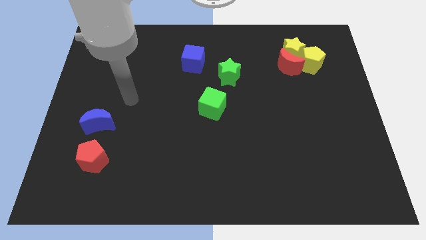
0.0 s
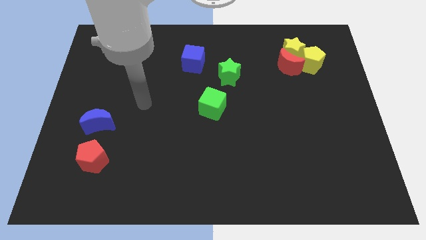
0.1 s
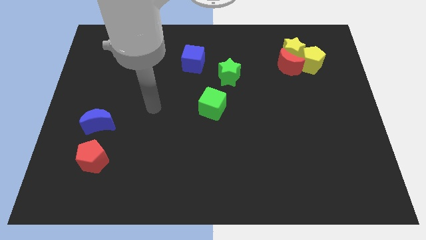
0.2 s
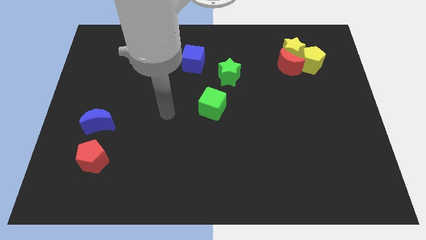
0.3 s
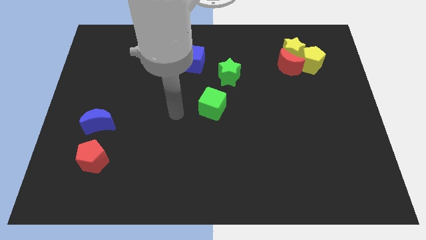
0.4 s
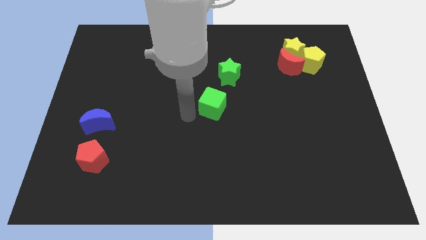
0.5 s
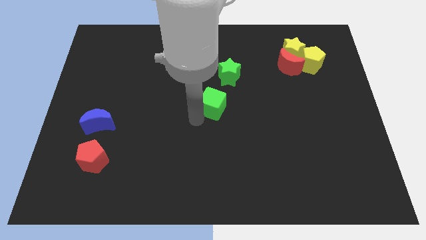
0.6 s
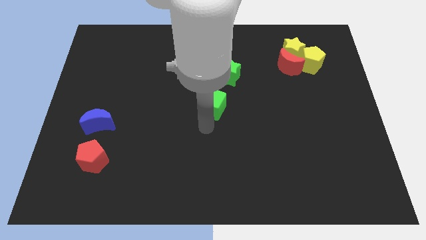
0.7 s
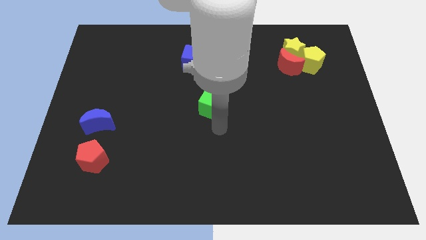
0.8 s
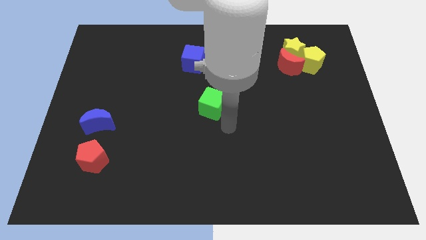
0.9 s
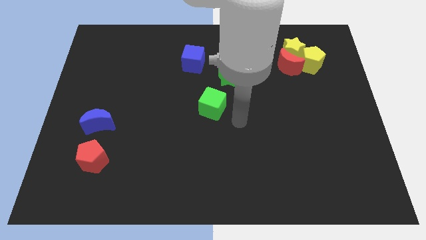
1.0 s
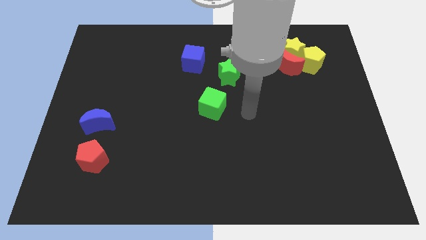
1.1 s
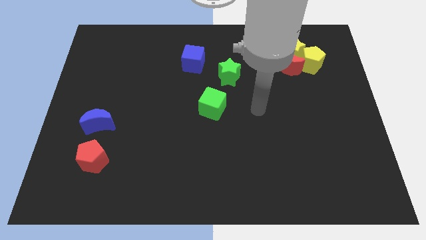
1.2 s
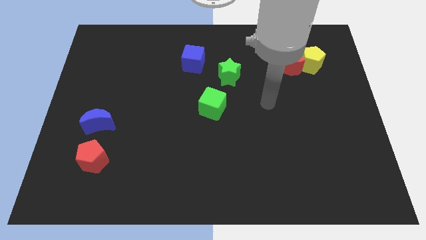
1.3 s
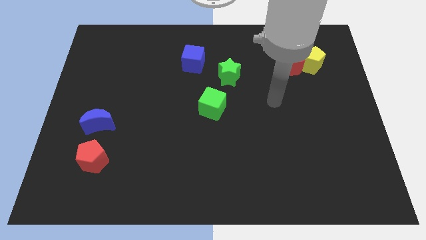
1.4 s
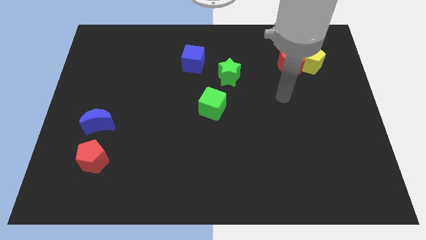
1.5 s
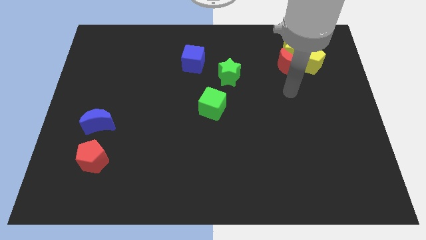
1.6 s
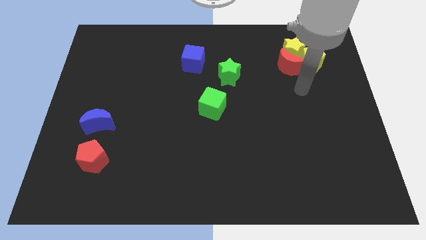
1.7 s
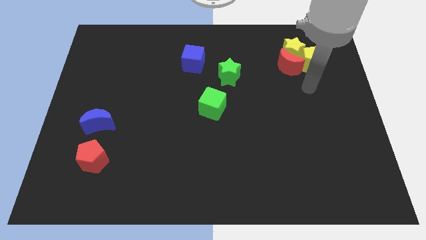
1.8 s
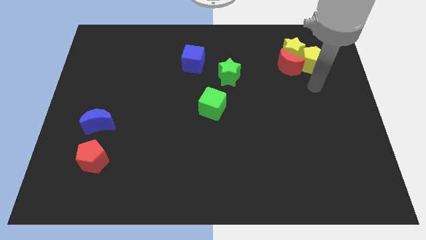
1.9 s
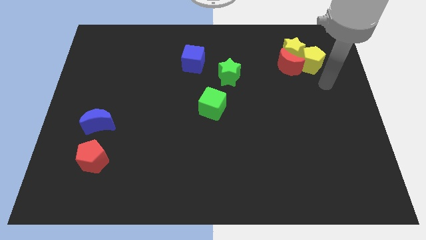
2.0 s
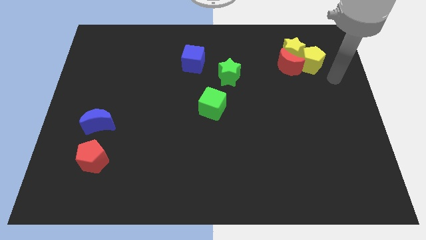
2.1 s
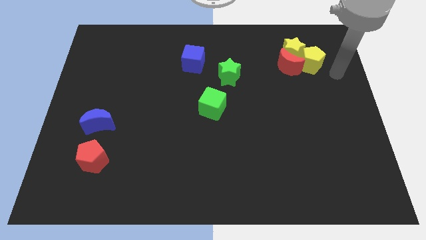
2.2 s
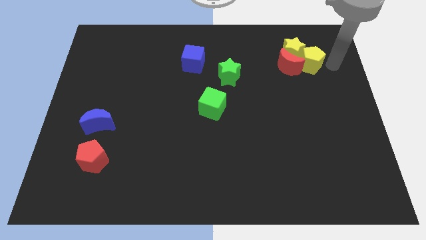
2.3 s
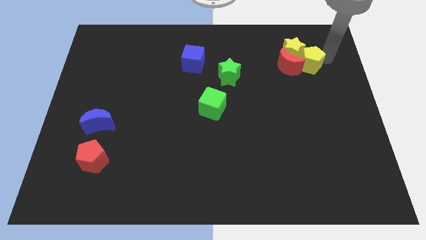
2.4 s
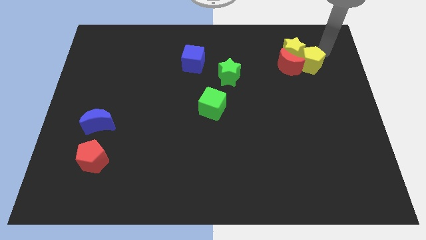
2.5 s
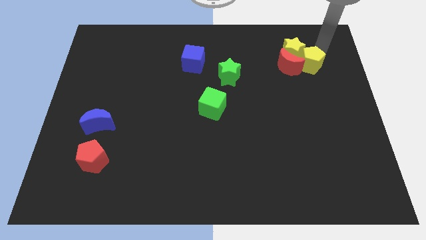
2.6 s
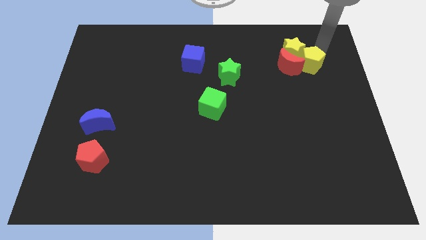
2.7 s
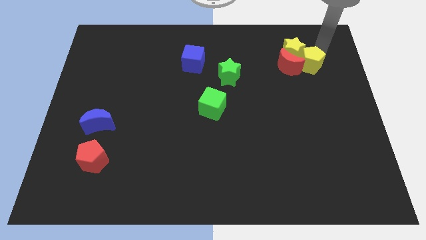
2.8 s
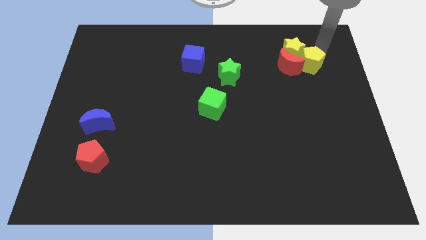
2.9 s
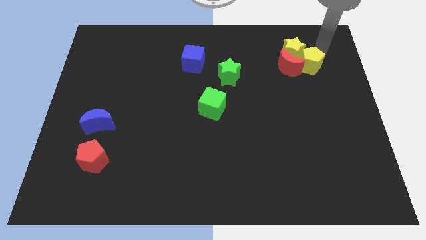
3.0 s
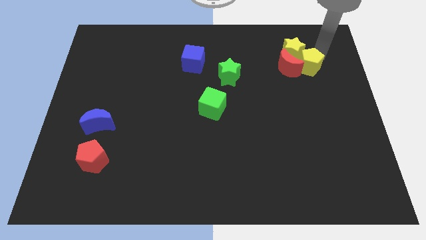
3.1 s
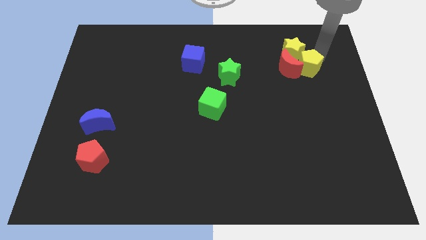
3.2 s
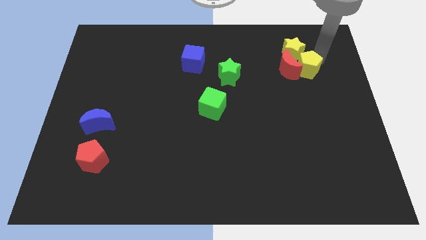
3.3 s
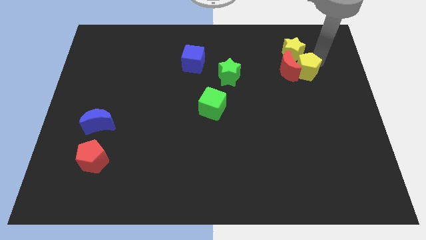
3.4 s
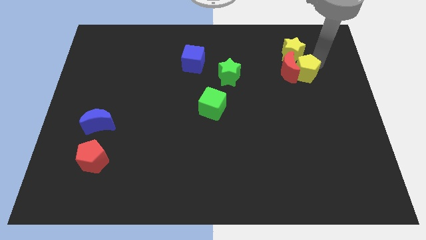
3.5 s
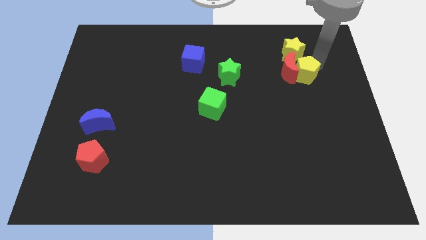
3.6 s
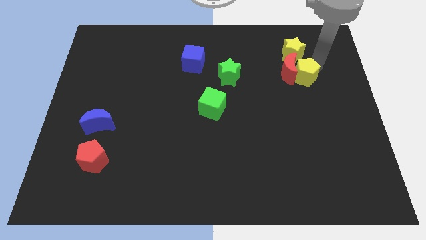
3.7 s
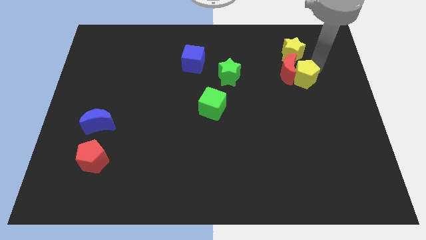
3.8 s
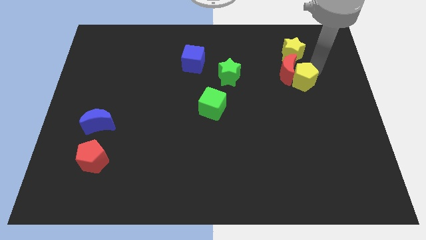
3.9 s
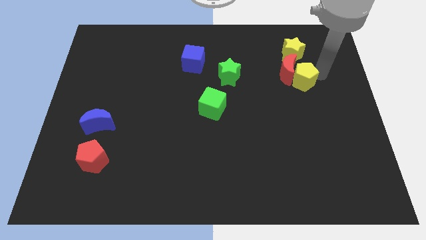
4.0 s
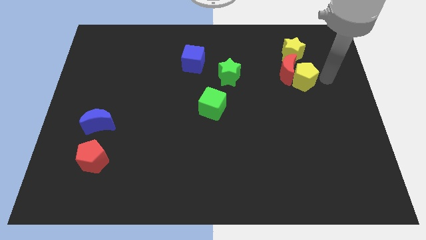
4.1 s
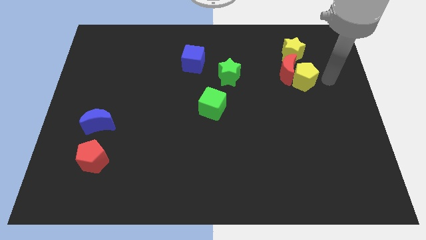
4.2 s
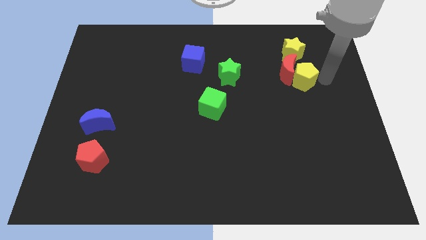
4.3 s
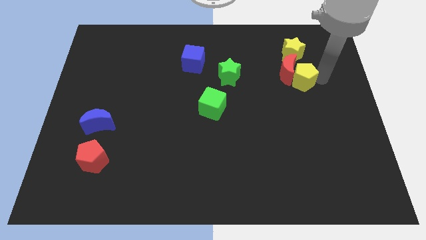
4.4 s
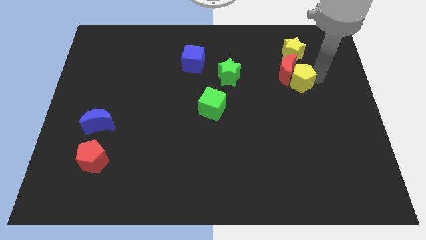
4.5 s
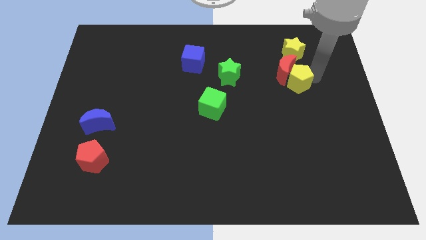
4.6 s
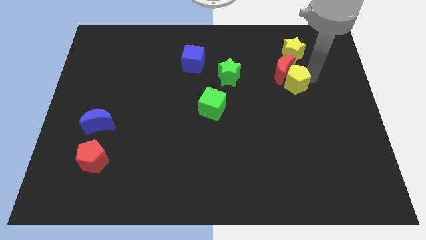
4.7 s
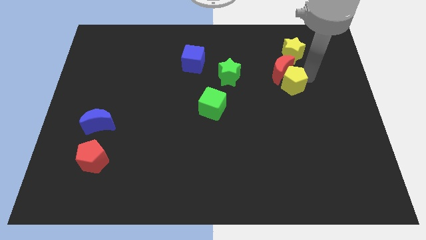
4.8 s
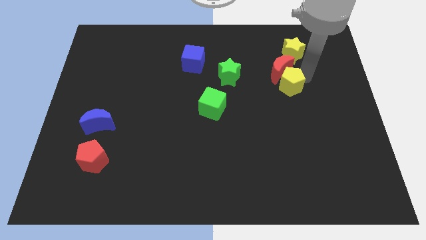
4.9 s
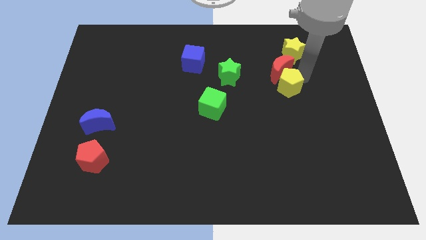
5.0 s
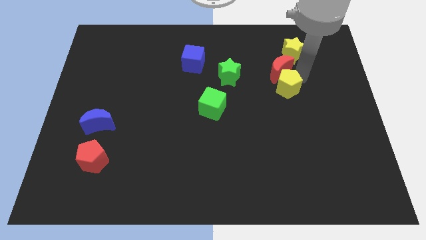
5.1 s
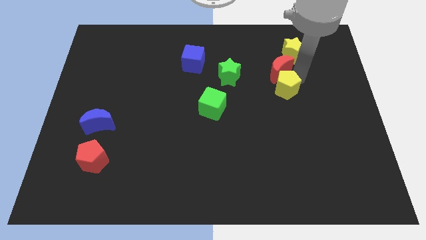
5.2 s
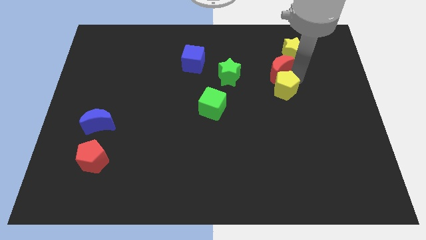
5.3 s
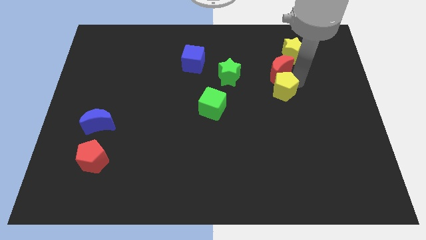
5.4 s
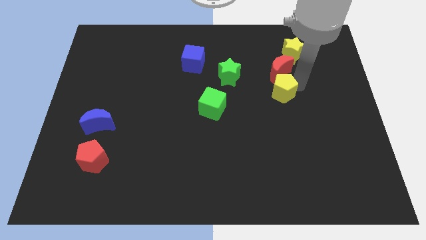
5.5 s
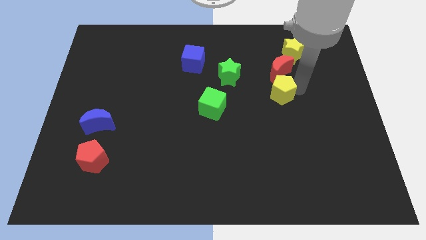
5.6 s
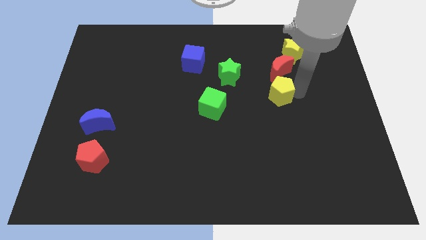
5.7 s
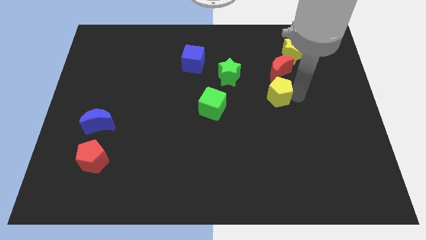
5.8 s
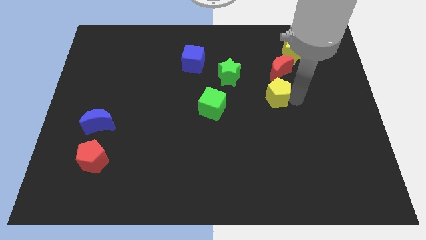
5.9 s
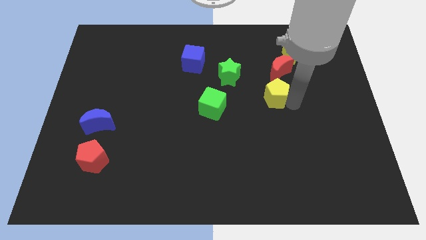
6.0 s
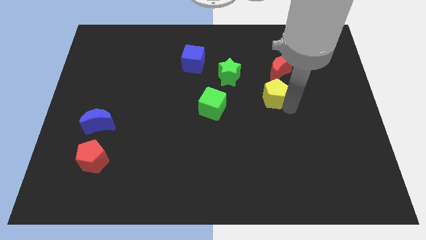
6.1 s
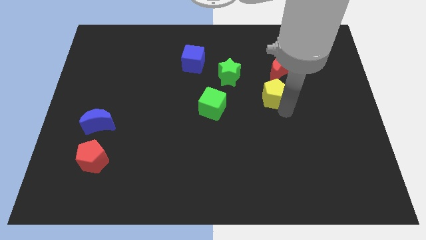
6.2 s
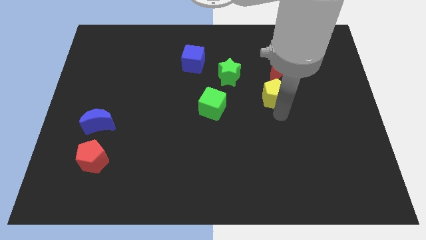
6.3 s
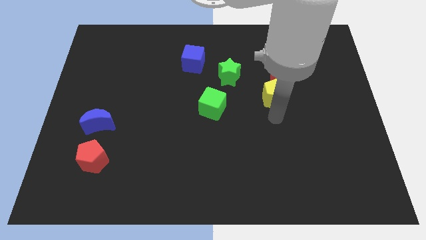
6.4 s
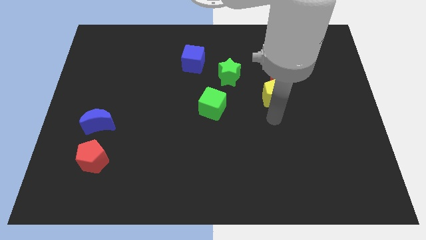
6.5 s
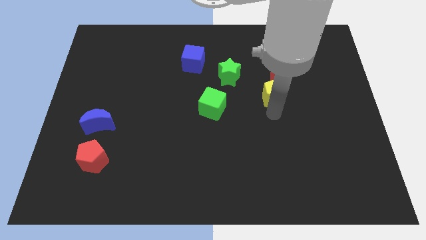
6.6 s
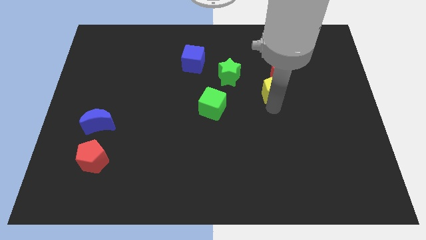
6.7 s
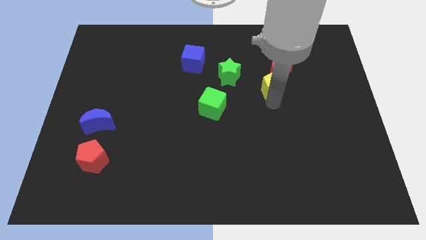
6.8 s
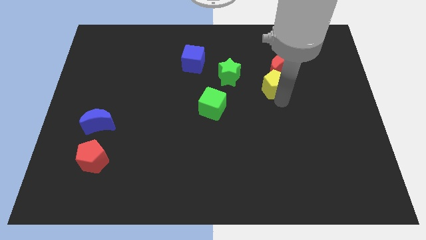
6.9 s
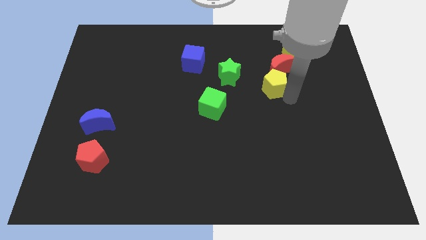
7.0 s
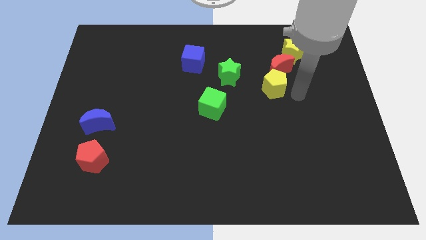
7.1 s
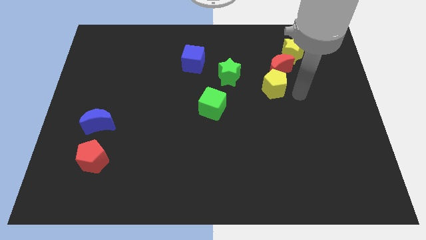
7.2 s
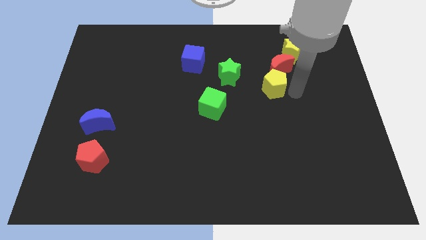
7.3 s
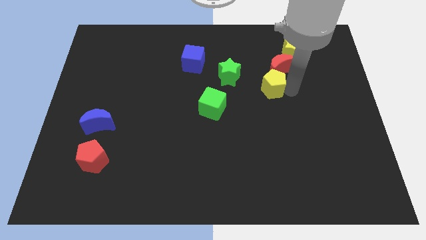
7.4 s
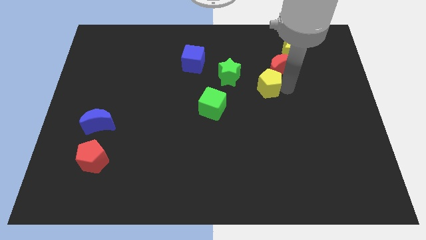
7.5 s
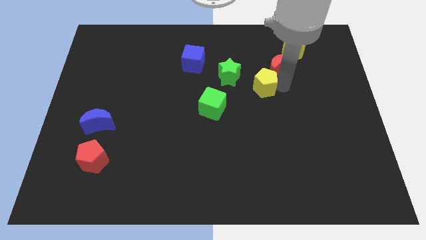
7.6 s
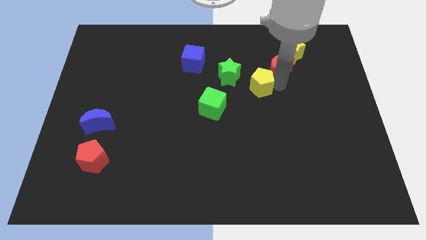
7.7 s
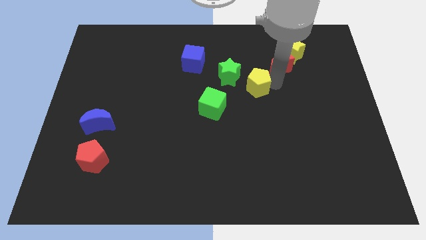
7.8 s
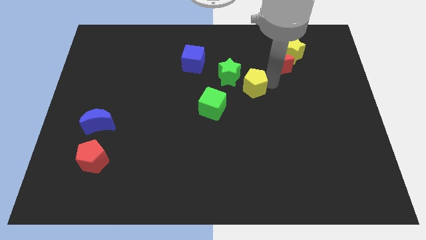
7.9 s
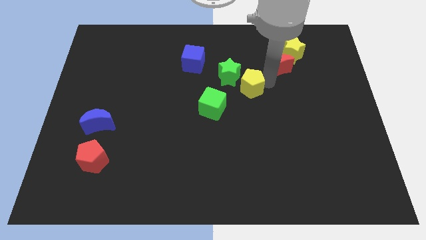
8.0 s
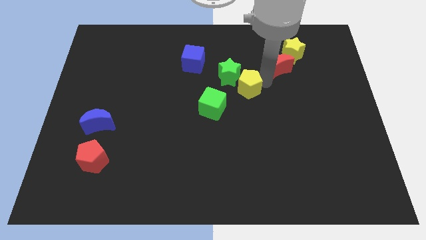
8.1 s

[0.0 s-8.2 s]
put the yellow pentagon next to the green star
